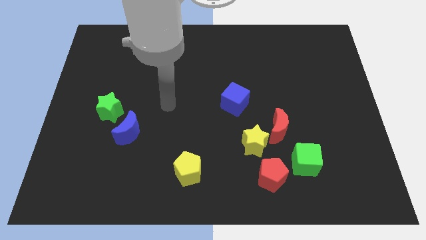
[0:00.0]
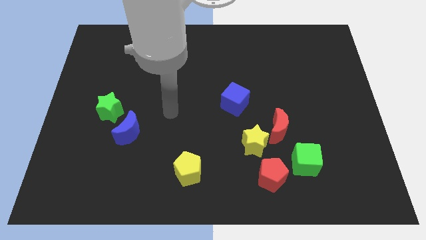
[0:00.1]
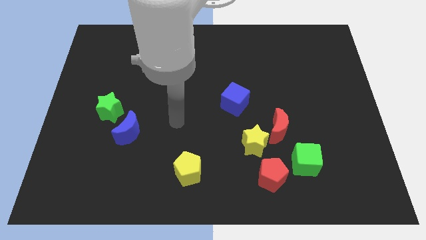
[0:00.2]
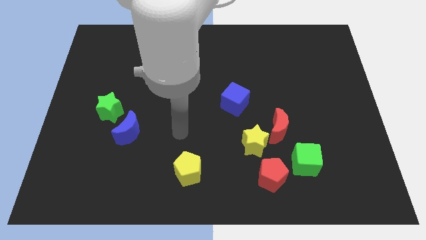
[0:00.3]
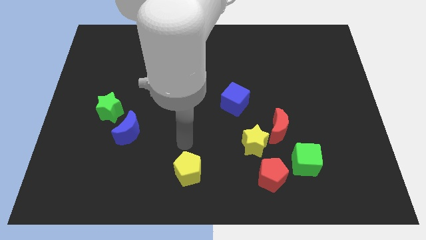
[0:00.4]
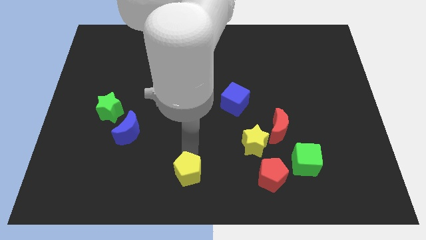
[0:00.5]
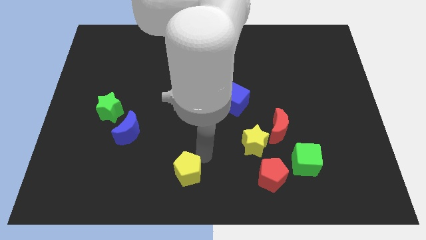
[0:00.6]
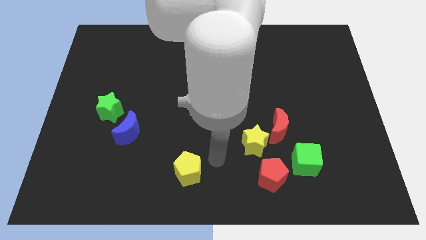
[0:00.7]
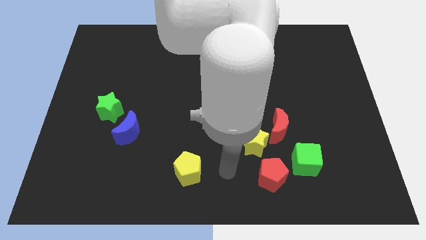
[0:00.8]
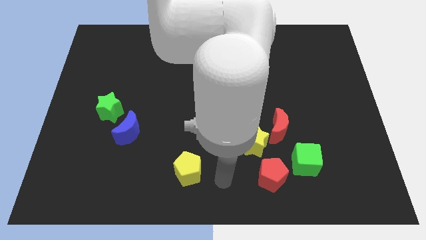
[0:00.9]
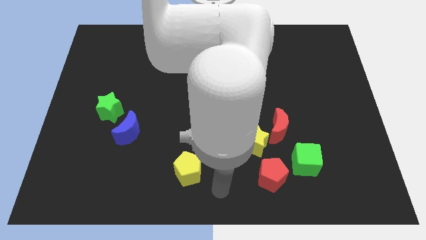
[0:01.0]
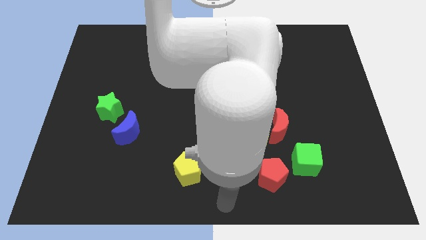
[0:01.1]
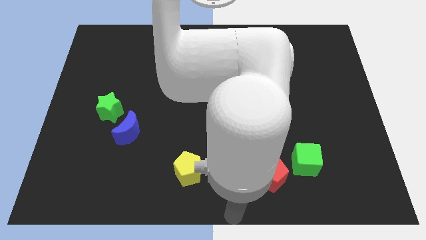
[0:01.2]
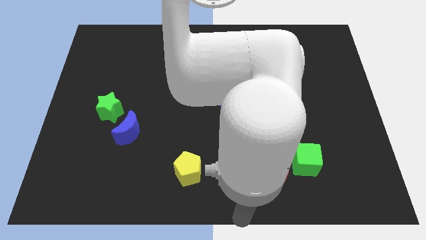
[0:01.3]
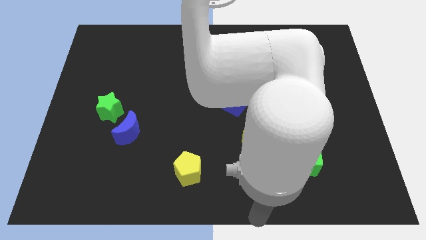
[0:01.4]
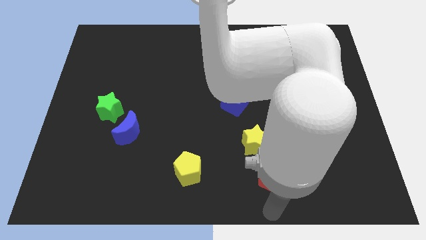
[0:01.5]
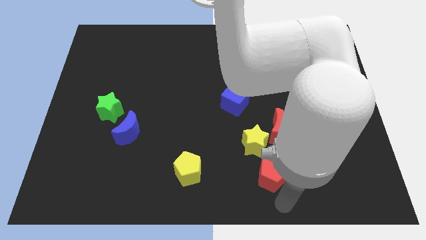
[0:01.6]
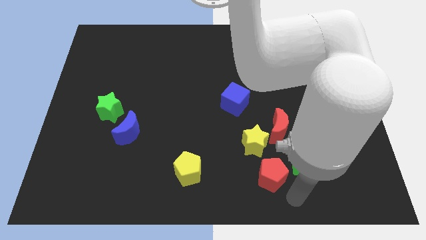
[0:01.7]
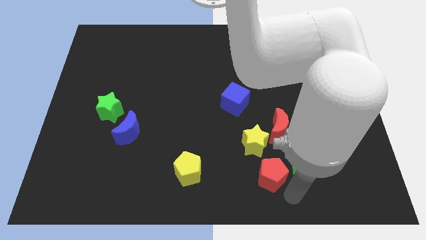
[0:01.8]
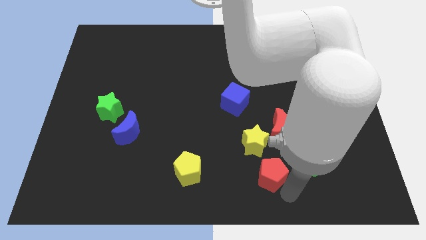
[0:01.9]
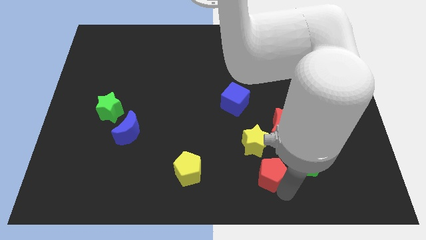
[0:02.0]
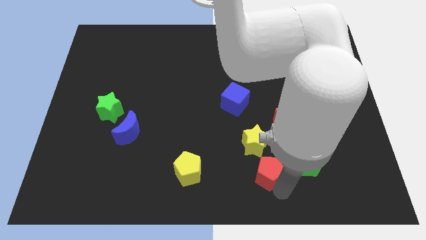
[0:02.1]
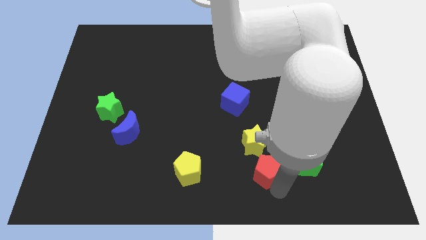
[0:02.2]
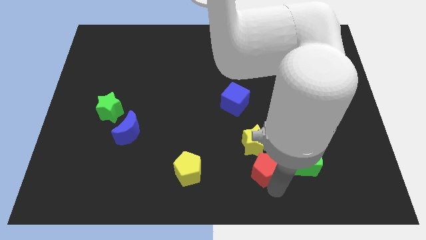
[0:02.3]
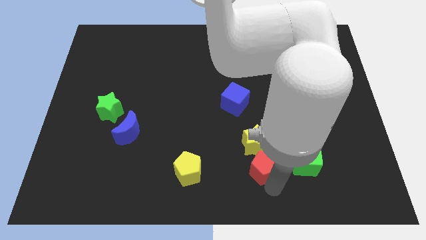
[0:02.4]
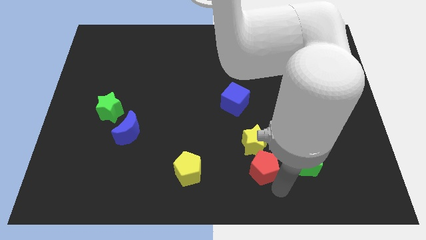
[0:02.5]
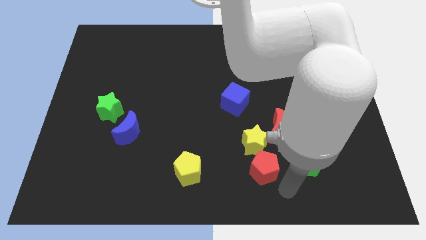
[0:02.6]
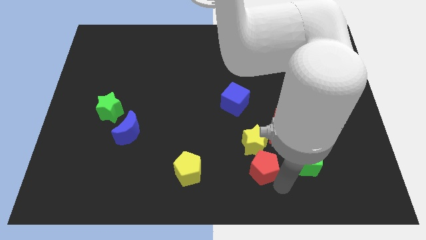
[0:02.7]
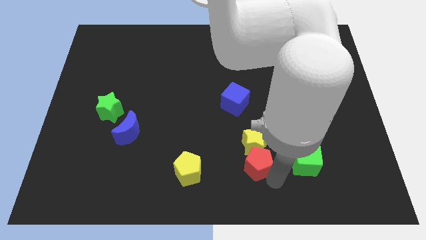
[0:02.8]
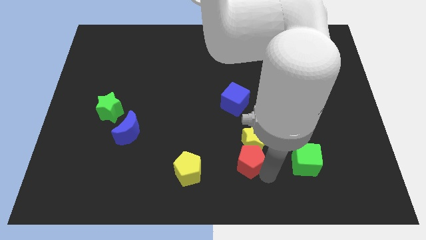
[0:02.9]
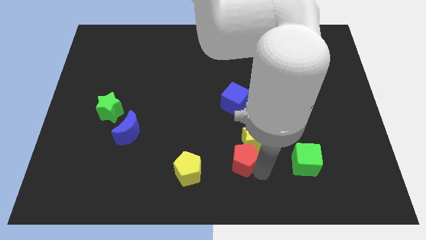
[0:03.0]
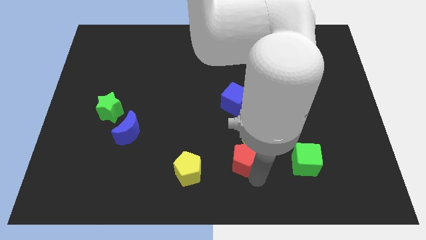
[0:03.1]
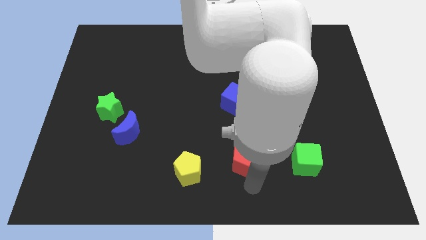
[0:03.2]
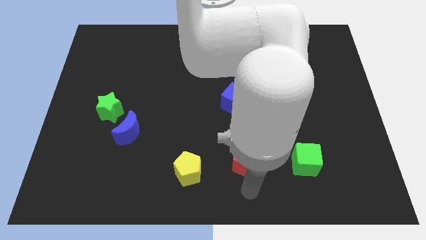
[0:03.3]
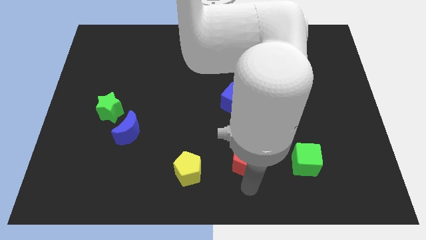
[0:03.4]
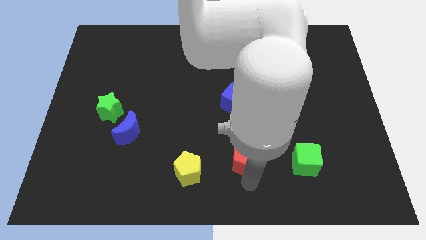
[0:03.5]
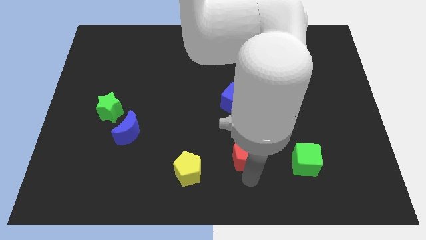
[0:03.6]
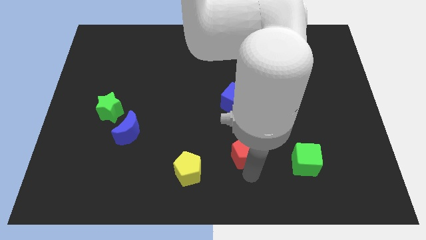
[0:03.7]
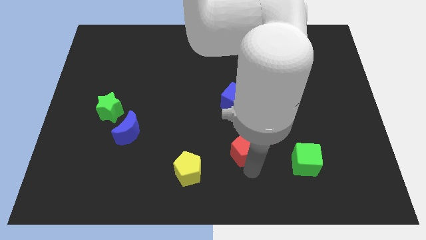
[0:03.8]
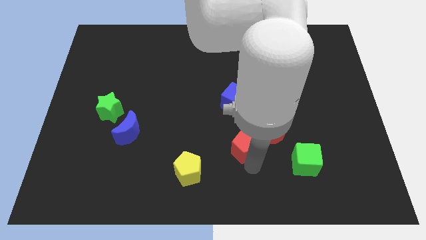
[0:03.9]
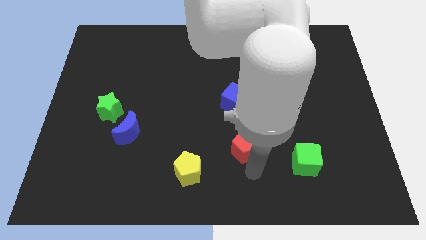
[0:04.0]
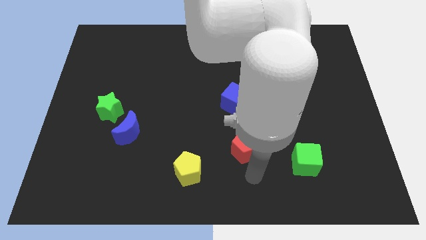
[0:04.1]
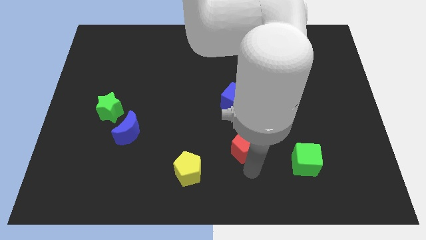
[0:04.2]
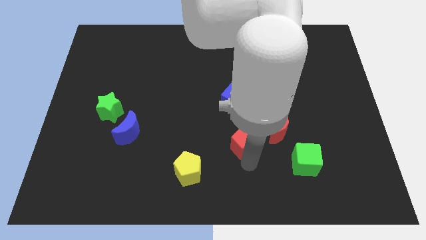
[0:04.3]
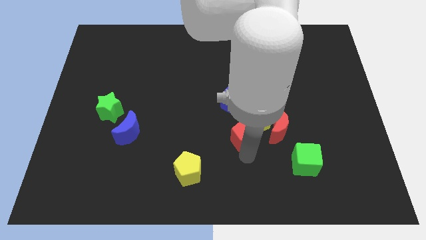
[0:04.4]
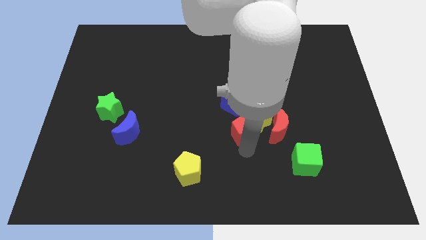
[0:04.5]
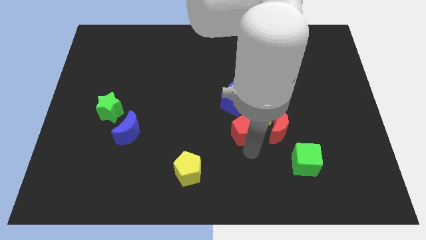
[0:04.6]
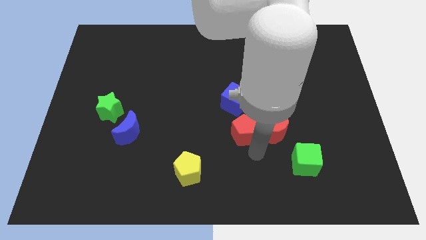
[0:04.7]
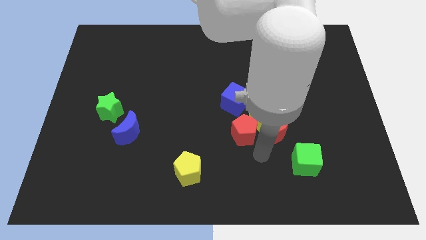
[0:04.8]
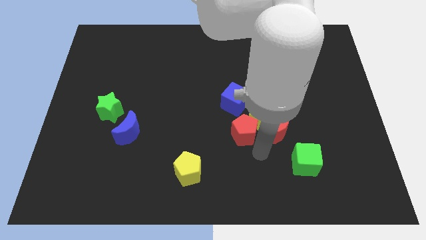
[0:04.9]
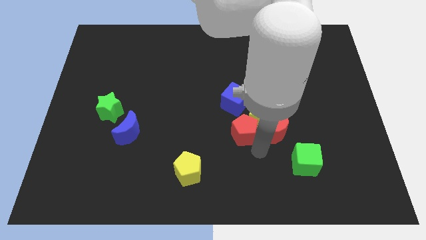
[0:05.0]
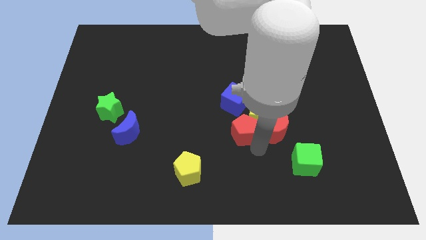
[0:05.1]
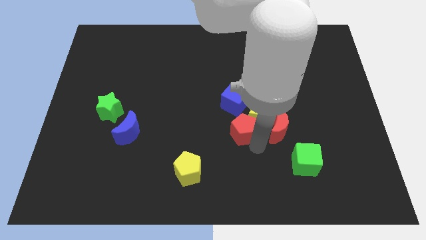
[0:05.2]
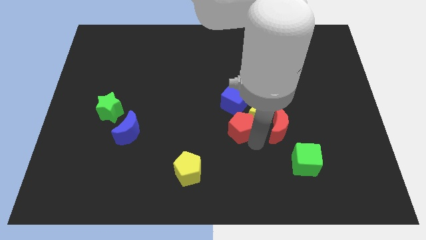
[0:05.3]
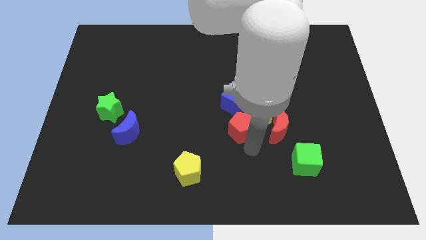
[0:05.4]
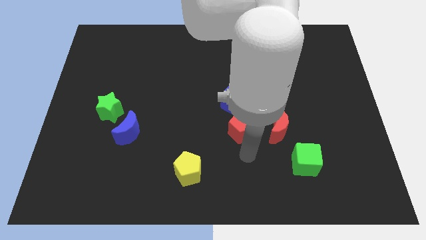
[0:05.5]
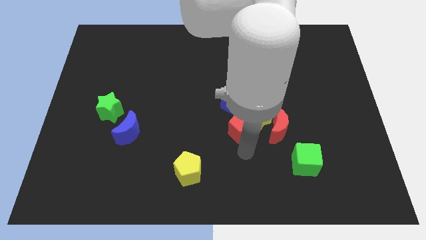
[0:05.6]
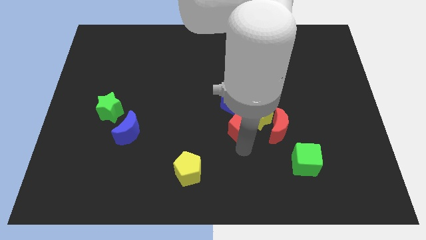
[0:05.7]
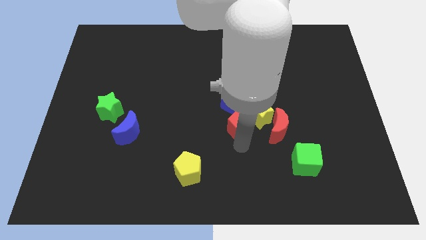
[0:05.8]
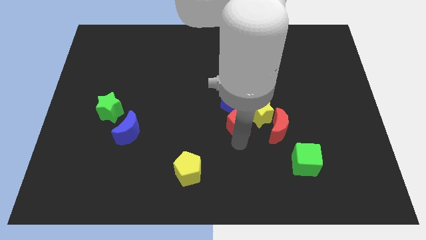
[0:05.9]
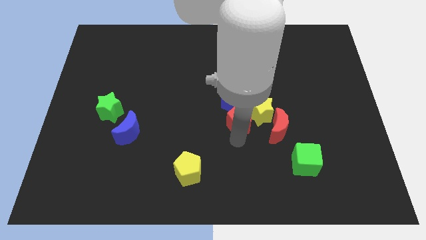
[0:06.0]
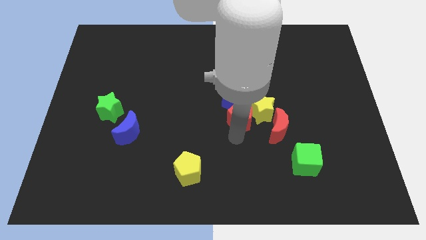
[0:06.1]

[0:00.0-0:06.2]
push the red pentagon close to the blue cube

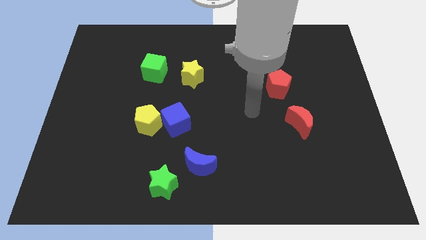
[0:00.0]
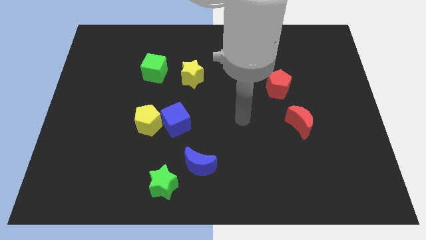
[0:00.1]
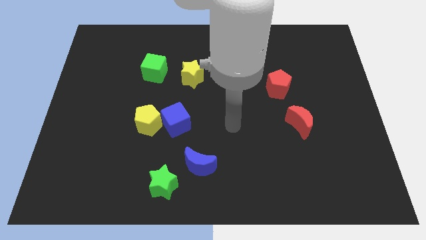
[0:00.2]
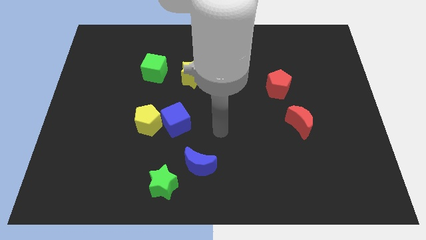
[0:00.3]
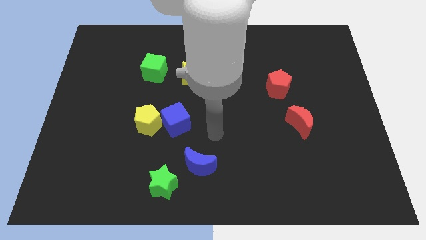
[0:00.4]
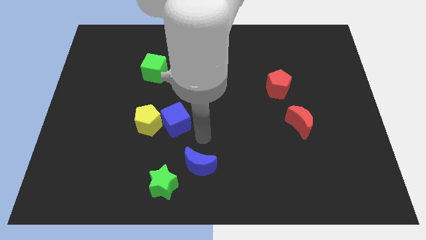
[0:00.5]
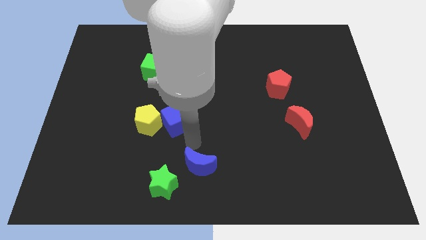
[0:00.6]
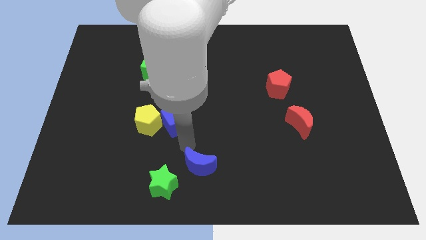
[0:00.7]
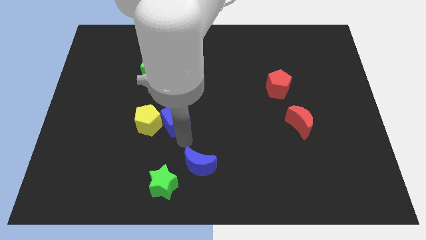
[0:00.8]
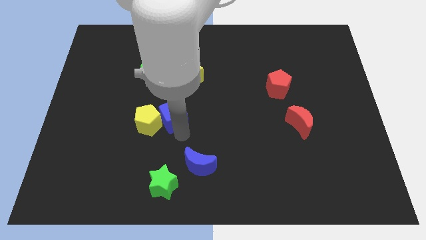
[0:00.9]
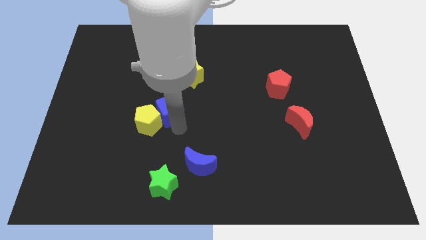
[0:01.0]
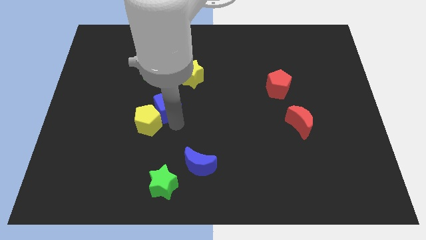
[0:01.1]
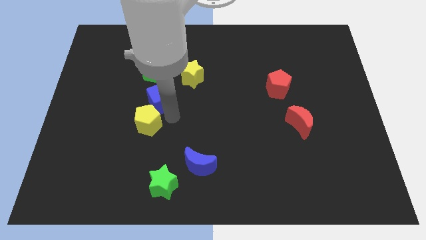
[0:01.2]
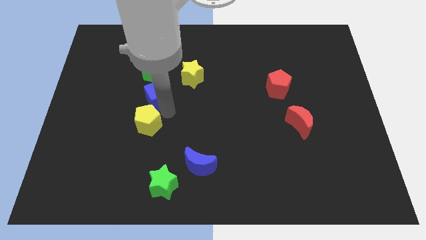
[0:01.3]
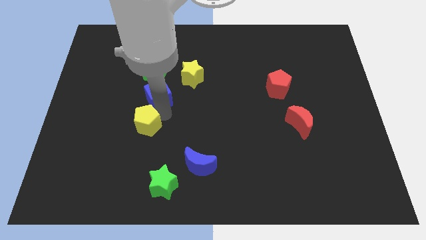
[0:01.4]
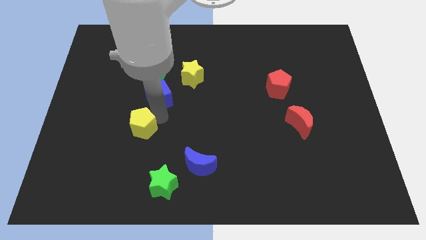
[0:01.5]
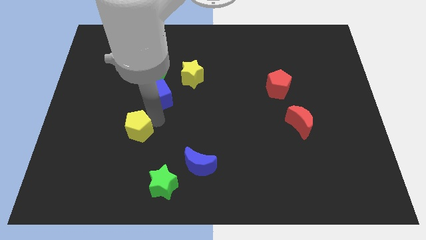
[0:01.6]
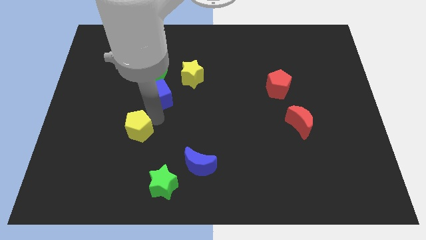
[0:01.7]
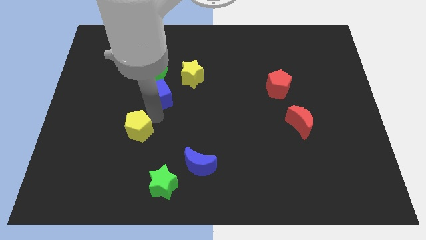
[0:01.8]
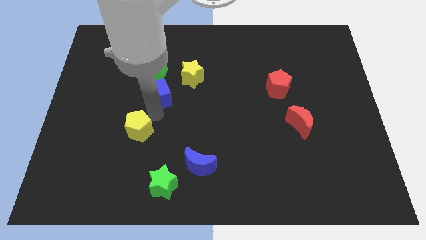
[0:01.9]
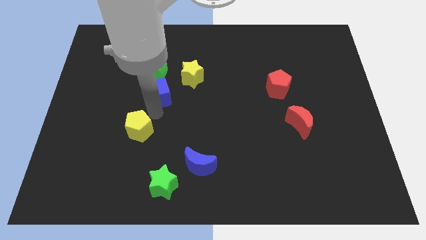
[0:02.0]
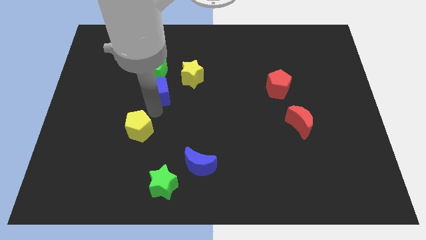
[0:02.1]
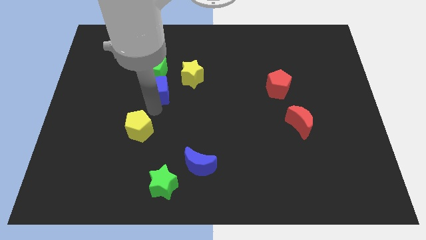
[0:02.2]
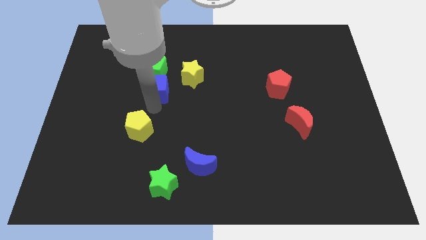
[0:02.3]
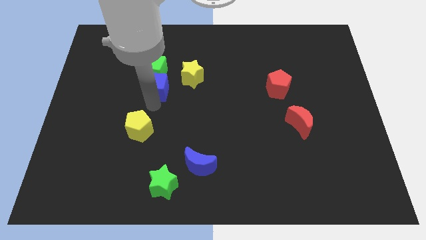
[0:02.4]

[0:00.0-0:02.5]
push the blue cube to the green cube
